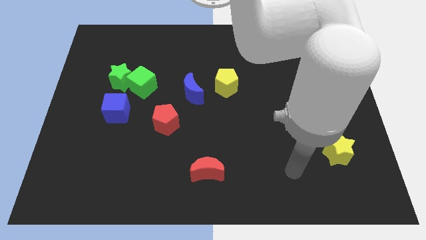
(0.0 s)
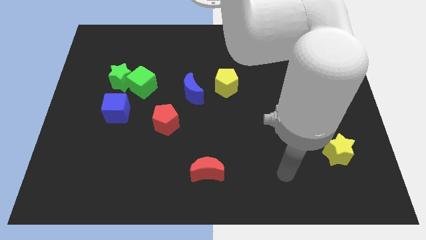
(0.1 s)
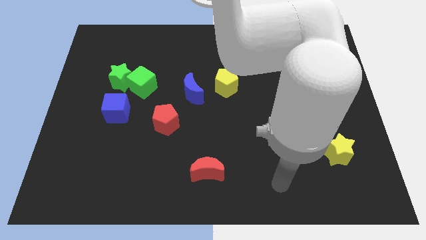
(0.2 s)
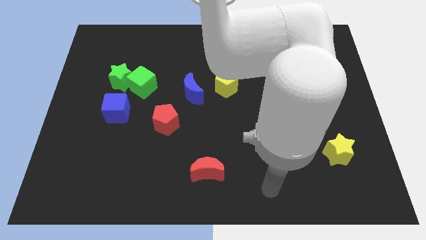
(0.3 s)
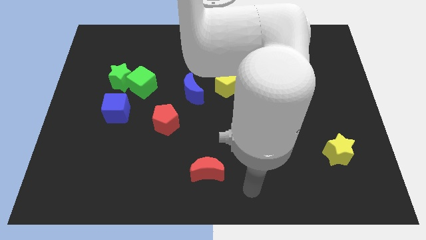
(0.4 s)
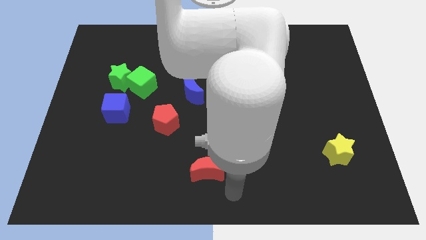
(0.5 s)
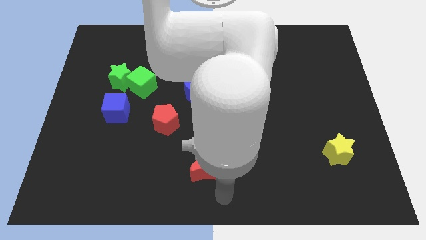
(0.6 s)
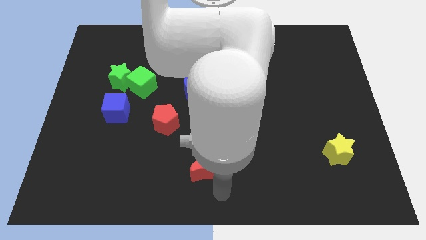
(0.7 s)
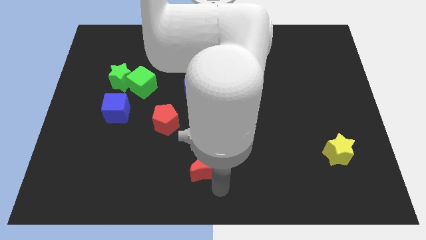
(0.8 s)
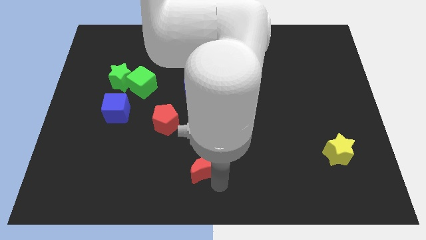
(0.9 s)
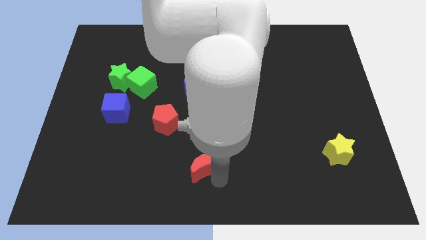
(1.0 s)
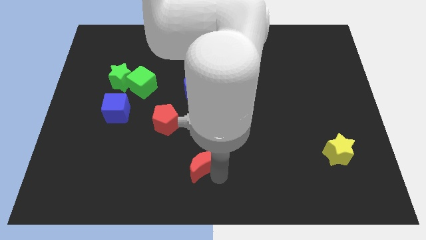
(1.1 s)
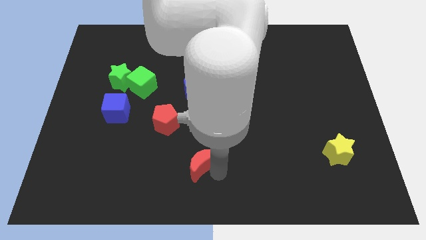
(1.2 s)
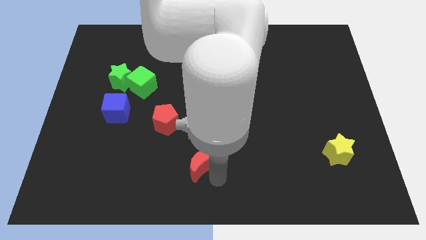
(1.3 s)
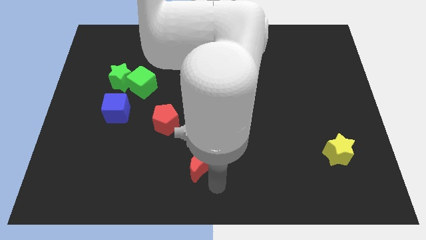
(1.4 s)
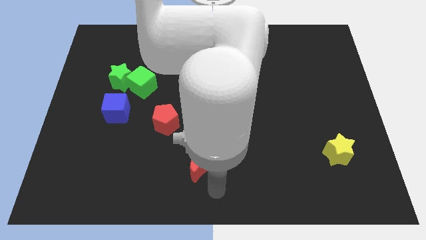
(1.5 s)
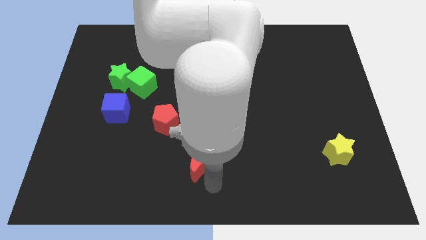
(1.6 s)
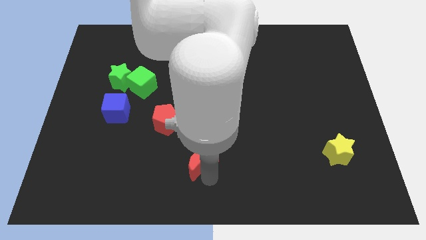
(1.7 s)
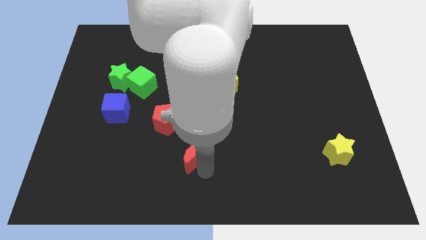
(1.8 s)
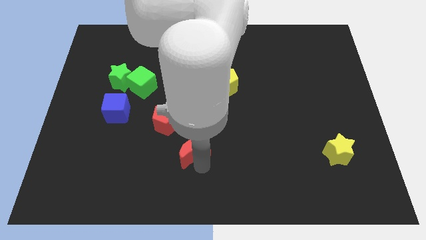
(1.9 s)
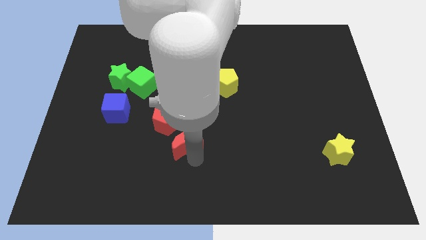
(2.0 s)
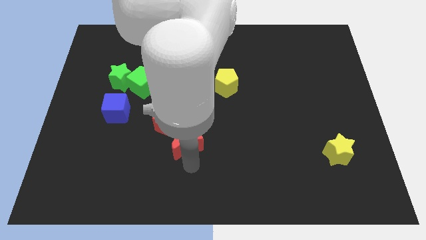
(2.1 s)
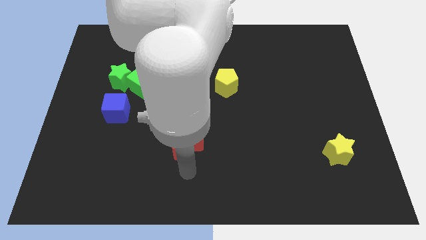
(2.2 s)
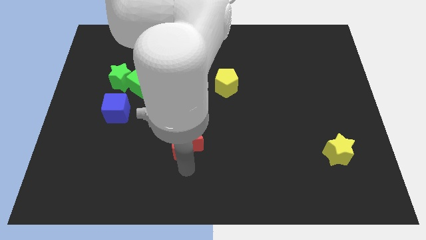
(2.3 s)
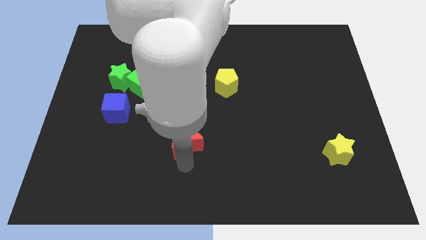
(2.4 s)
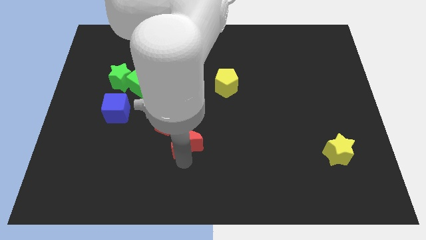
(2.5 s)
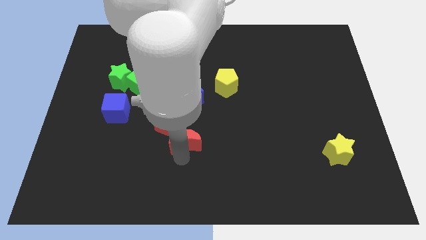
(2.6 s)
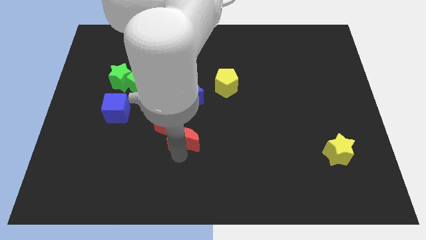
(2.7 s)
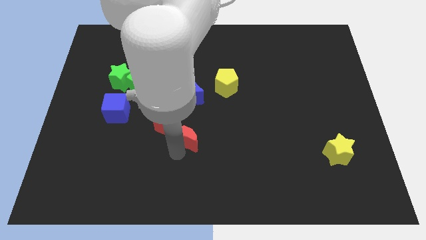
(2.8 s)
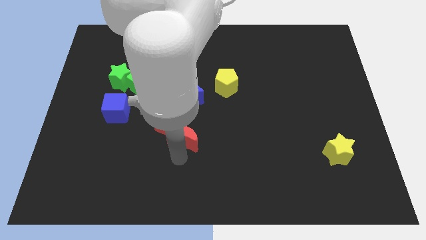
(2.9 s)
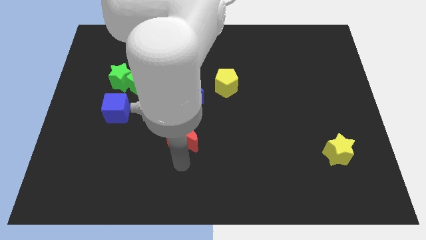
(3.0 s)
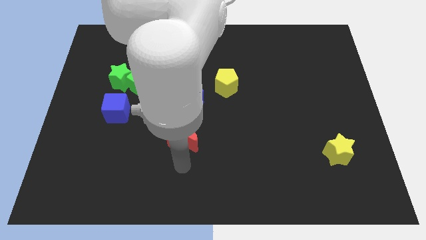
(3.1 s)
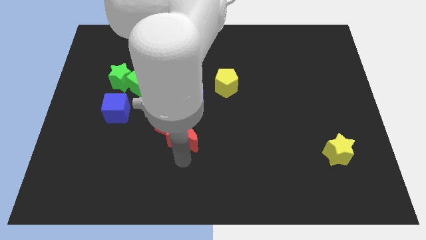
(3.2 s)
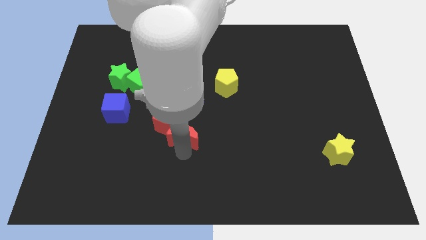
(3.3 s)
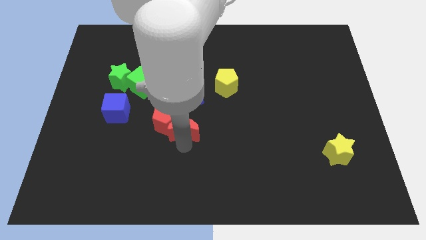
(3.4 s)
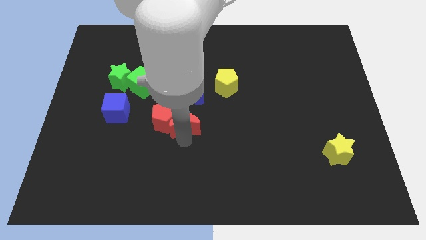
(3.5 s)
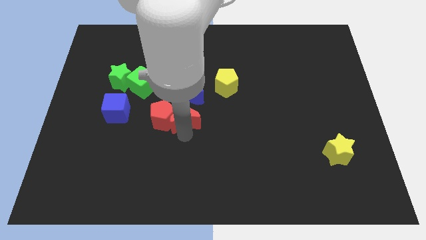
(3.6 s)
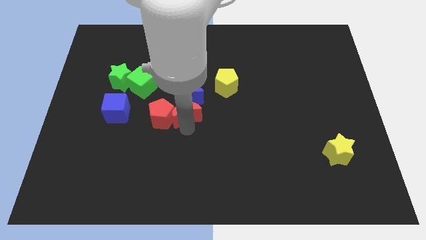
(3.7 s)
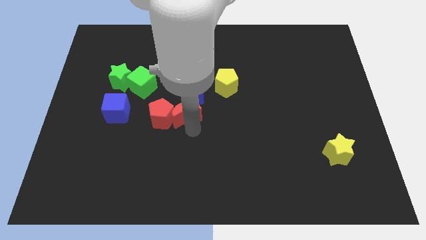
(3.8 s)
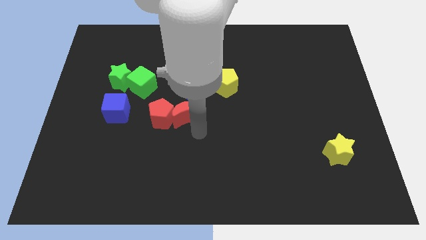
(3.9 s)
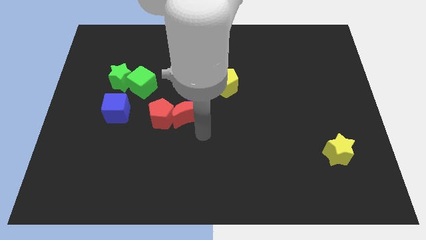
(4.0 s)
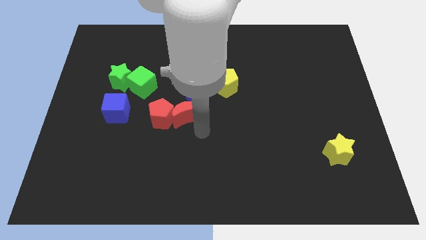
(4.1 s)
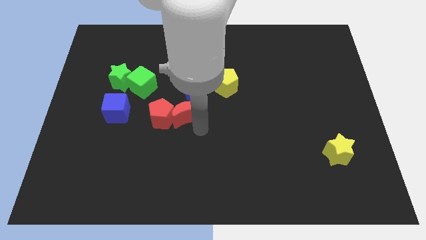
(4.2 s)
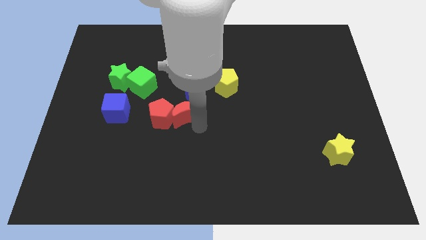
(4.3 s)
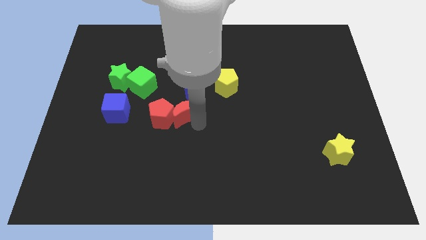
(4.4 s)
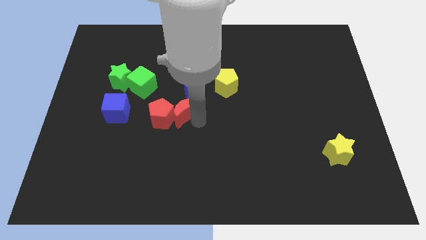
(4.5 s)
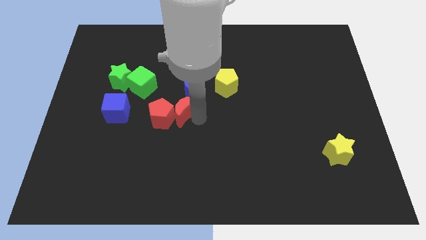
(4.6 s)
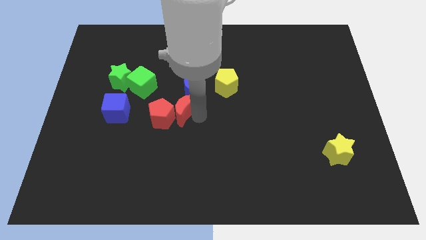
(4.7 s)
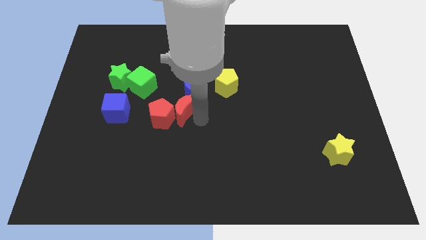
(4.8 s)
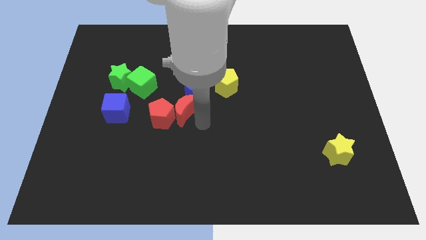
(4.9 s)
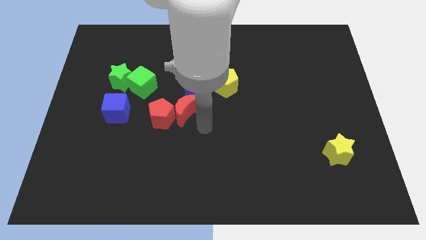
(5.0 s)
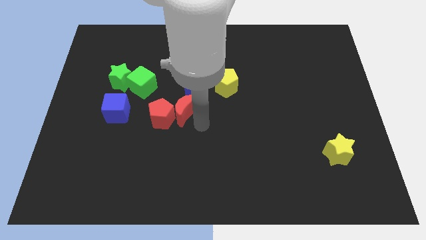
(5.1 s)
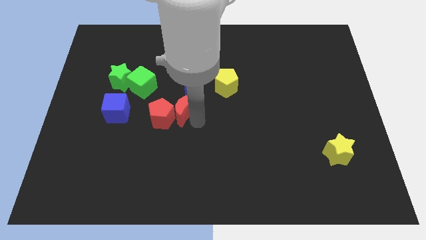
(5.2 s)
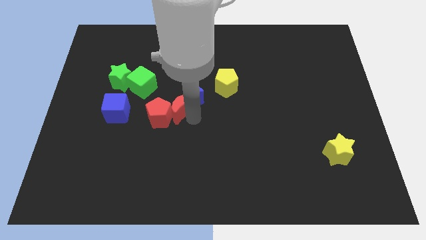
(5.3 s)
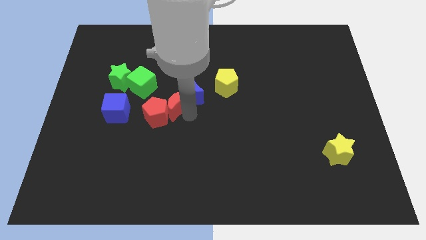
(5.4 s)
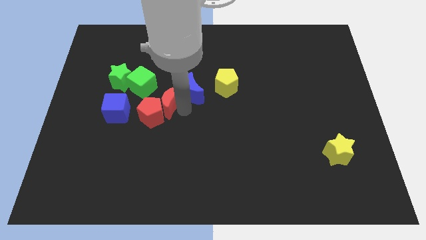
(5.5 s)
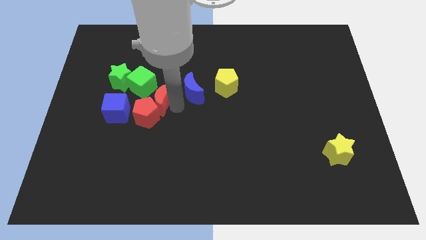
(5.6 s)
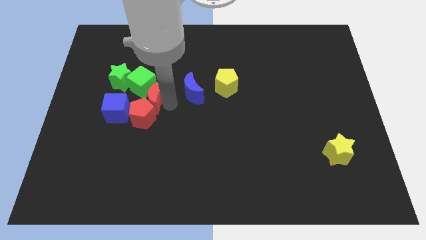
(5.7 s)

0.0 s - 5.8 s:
slide the red moon close to the green cube

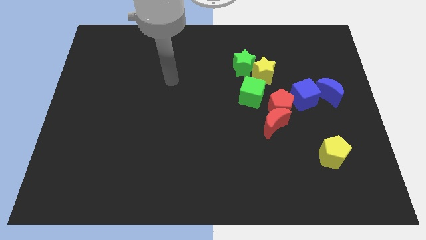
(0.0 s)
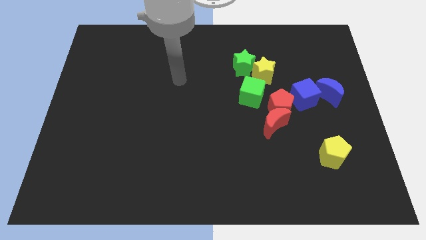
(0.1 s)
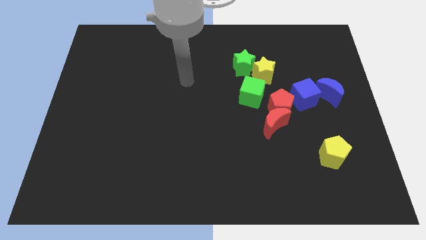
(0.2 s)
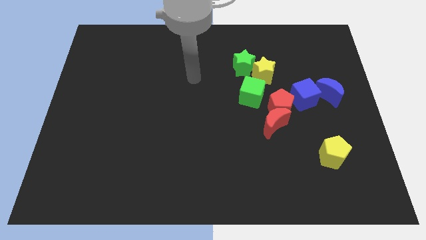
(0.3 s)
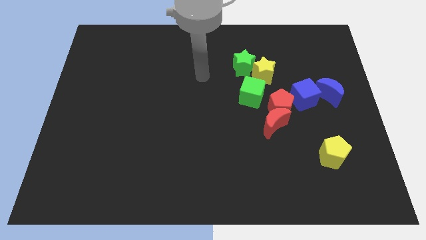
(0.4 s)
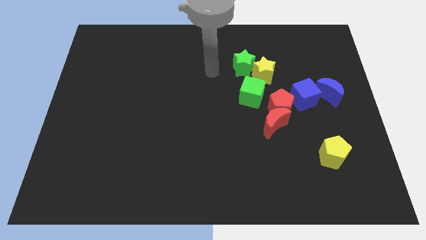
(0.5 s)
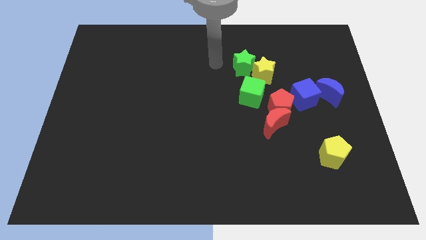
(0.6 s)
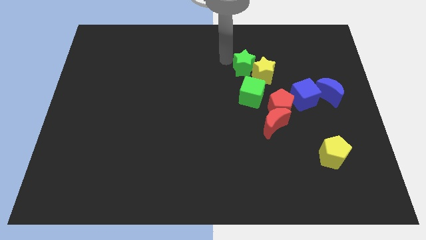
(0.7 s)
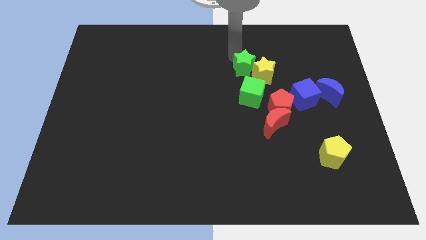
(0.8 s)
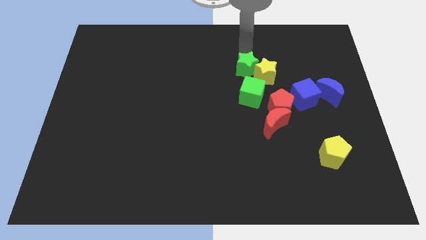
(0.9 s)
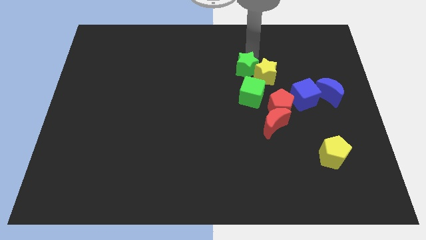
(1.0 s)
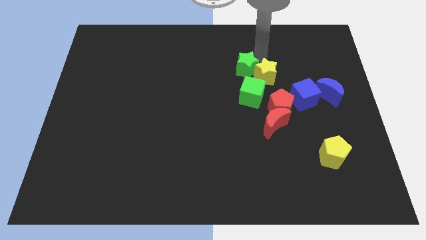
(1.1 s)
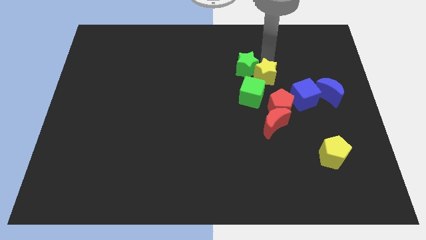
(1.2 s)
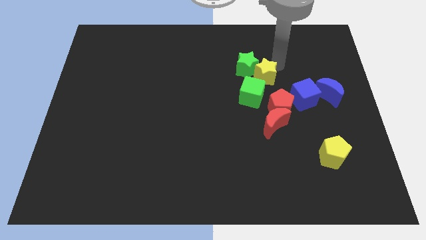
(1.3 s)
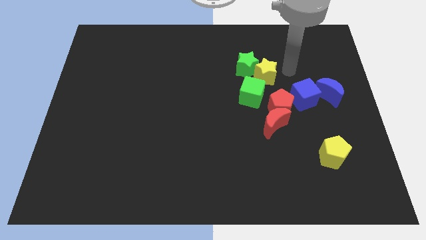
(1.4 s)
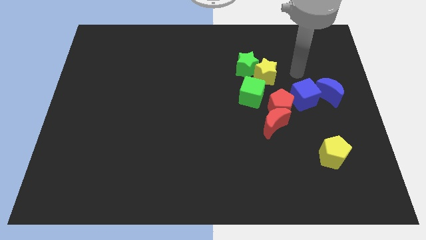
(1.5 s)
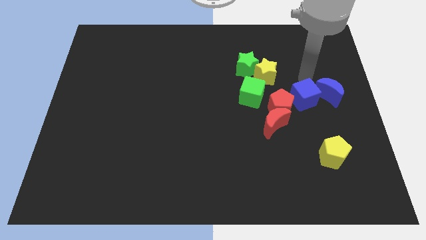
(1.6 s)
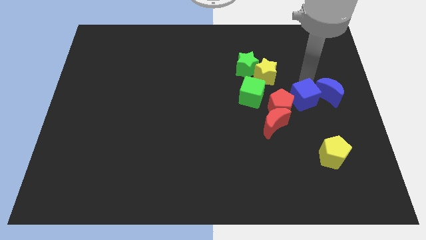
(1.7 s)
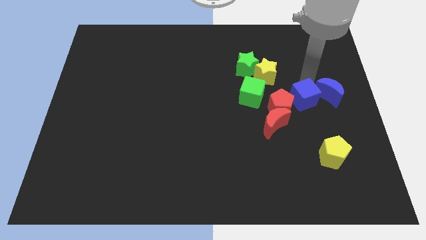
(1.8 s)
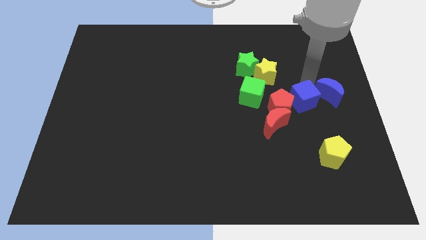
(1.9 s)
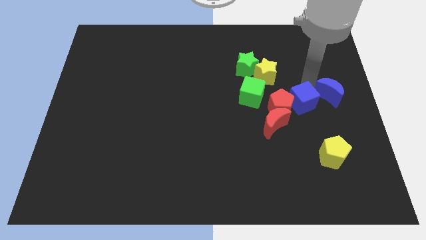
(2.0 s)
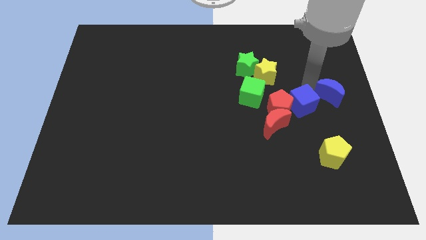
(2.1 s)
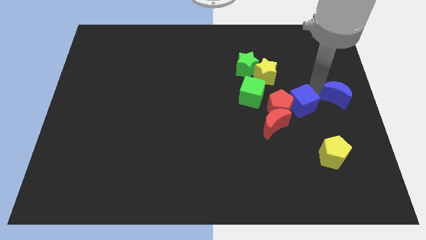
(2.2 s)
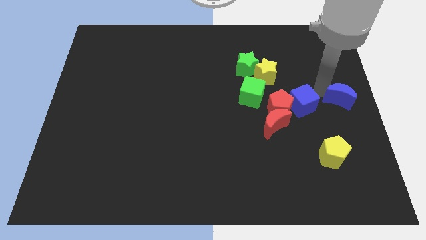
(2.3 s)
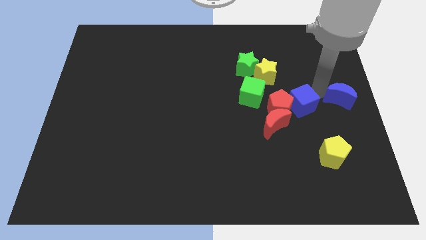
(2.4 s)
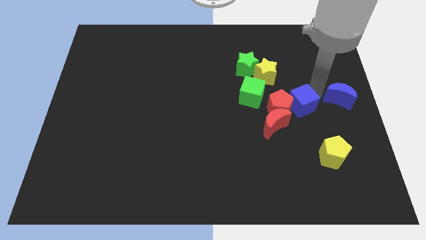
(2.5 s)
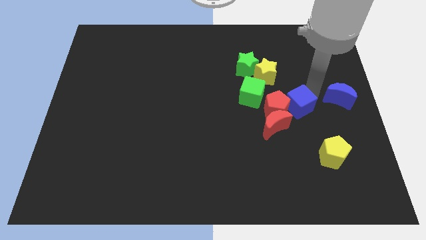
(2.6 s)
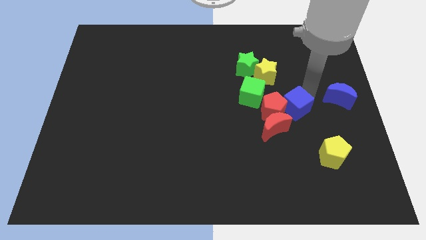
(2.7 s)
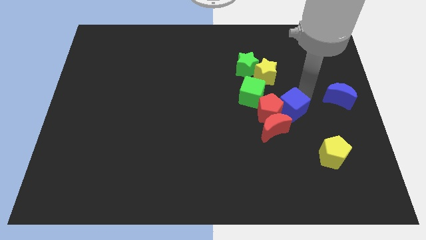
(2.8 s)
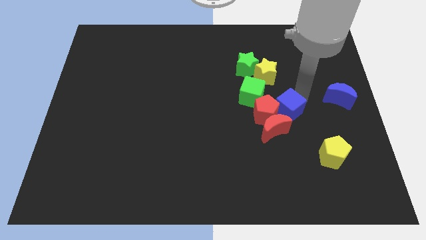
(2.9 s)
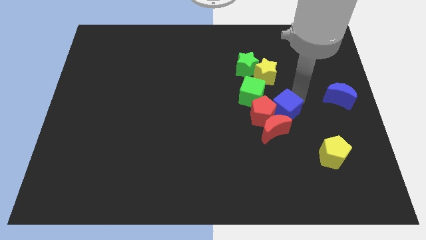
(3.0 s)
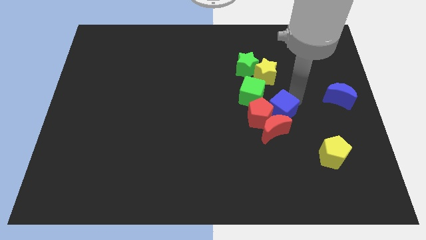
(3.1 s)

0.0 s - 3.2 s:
put the blue cube next to the red moon
